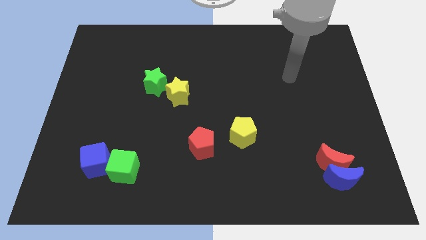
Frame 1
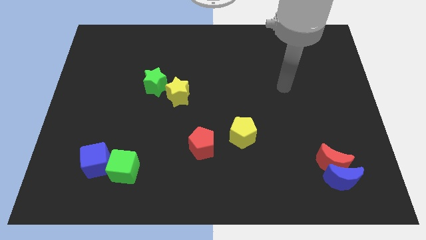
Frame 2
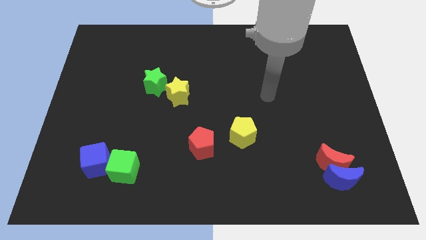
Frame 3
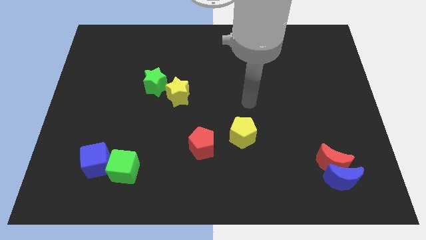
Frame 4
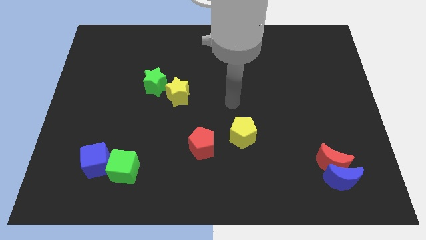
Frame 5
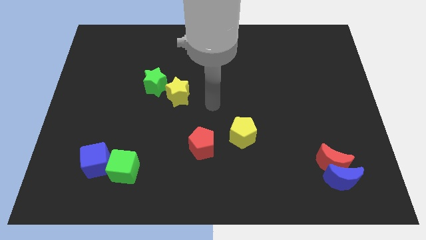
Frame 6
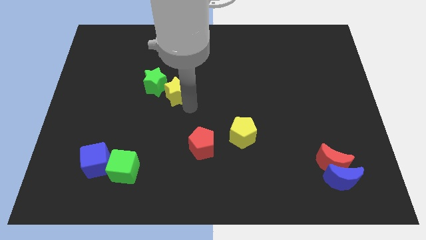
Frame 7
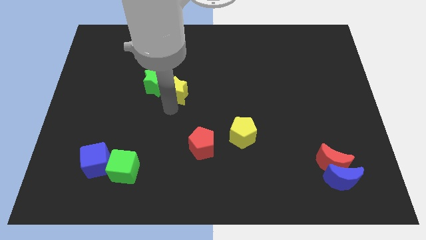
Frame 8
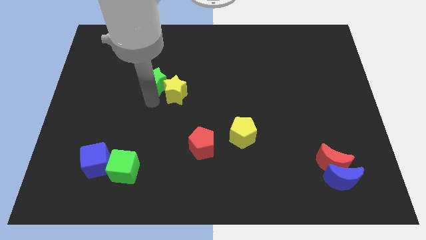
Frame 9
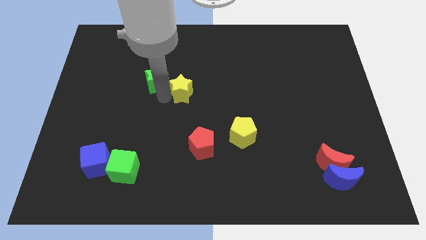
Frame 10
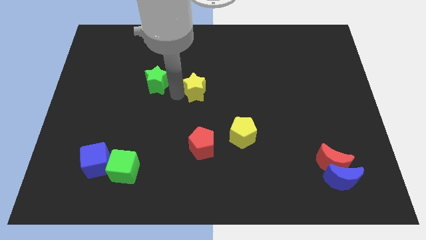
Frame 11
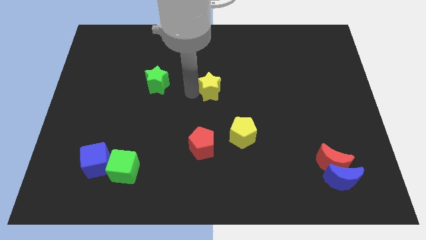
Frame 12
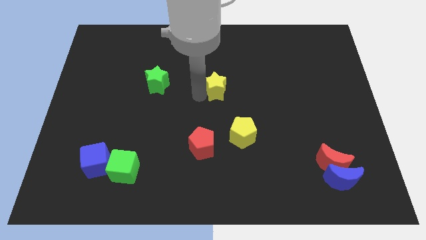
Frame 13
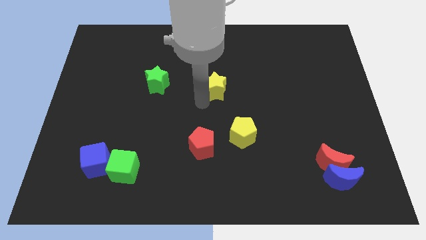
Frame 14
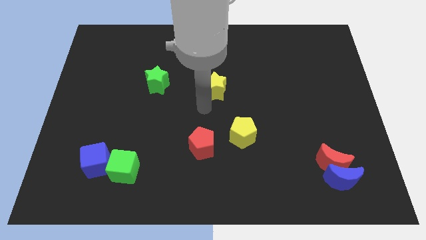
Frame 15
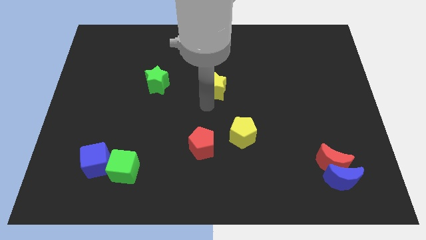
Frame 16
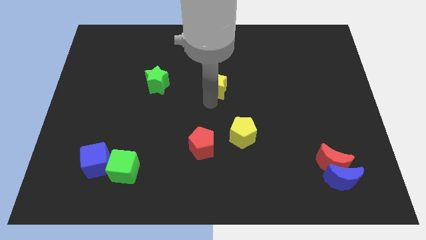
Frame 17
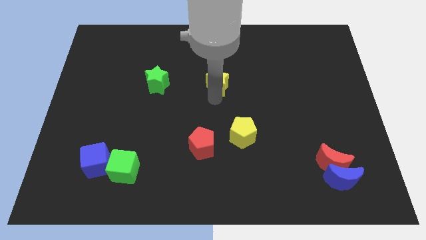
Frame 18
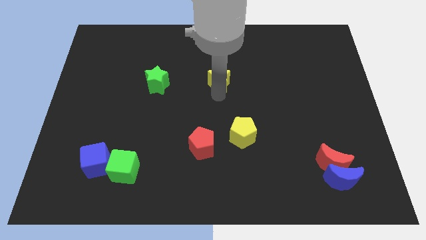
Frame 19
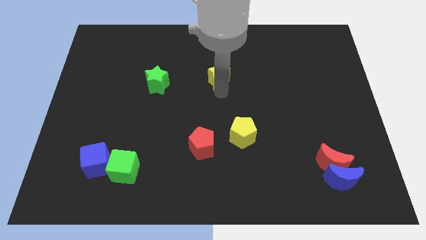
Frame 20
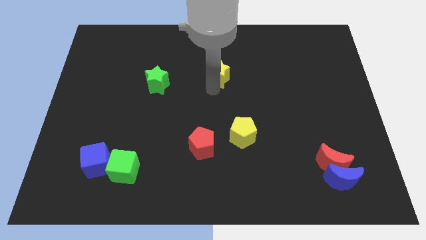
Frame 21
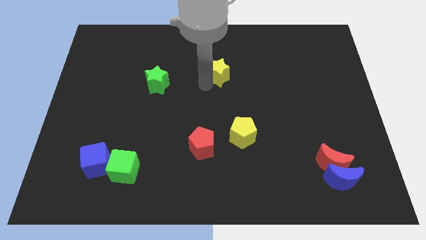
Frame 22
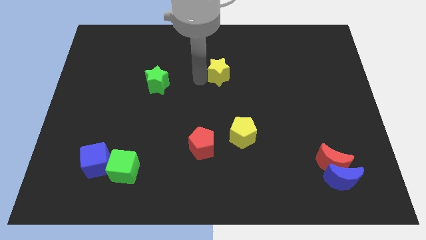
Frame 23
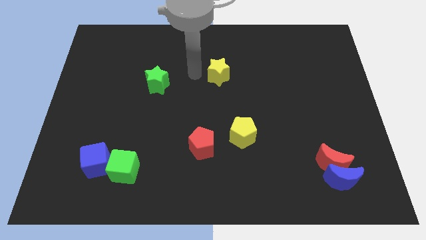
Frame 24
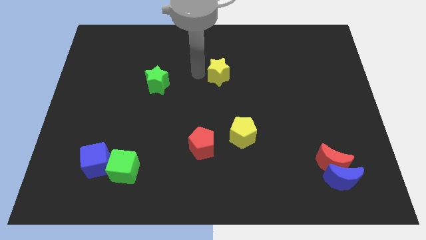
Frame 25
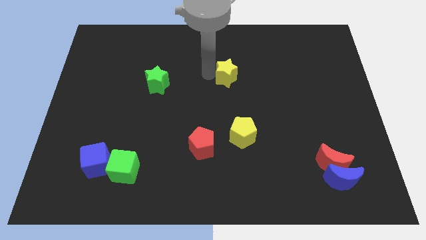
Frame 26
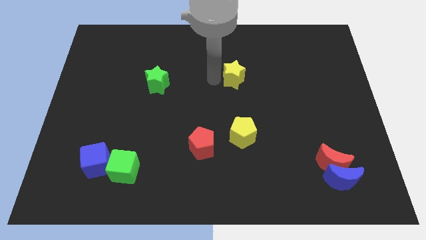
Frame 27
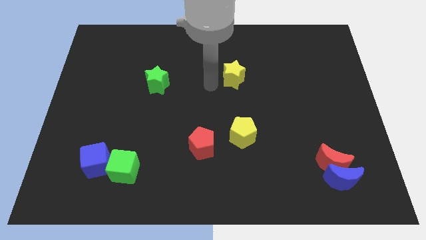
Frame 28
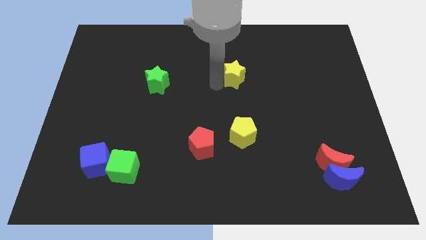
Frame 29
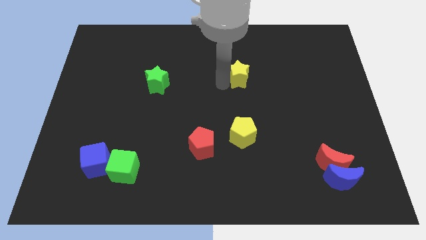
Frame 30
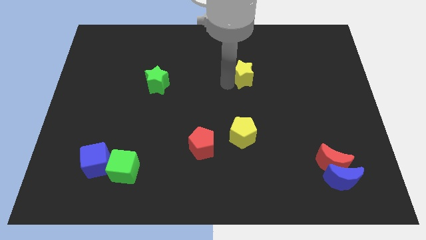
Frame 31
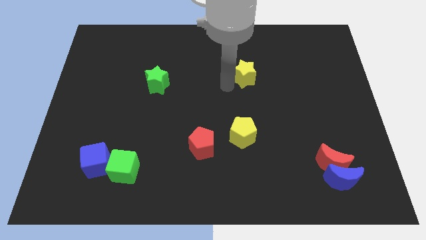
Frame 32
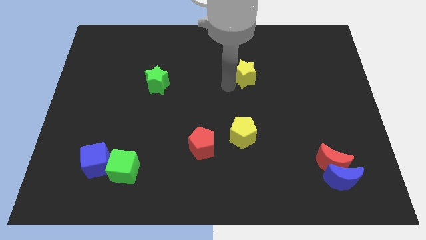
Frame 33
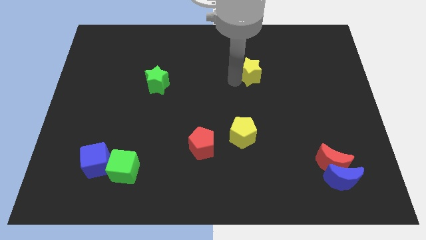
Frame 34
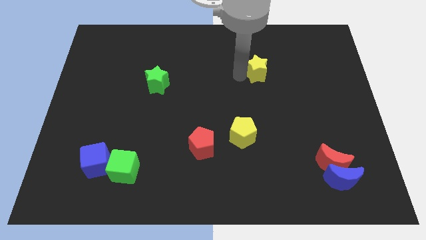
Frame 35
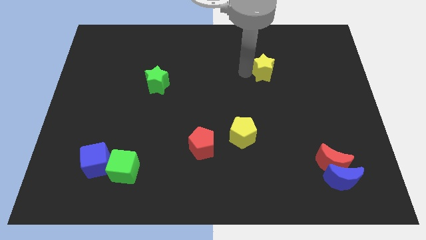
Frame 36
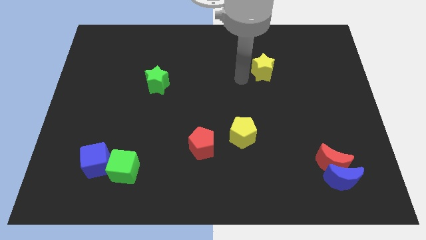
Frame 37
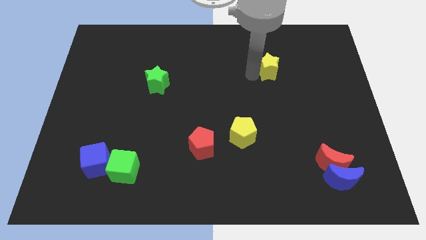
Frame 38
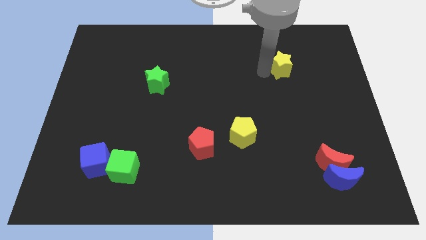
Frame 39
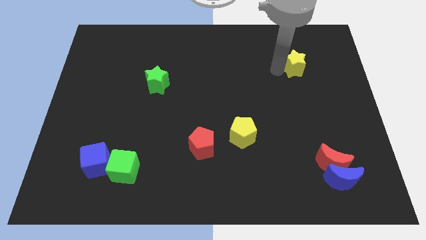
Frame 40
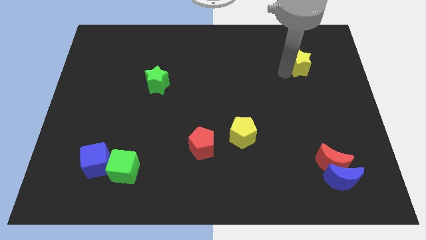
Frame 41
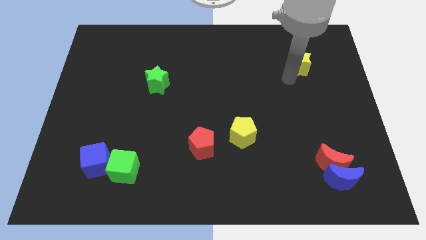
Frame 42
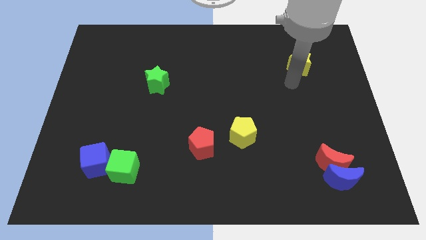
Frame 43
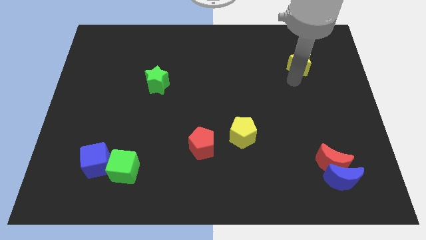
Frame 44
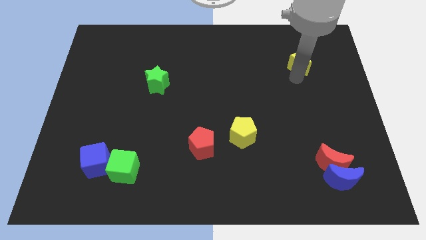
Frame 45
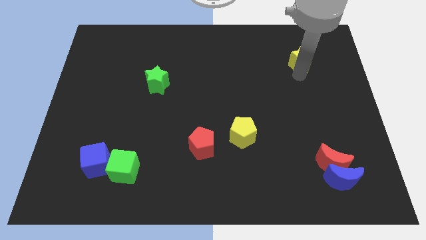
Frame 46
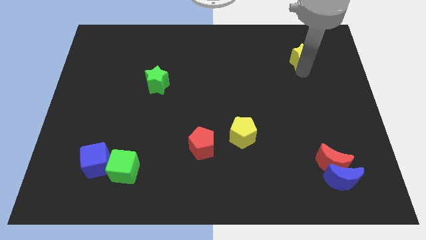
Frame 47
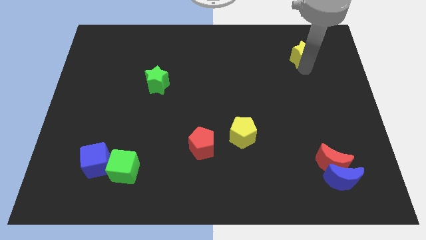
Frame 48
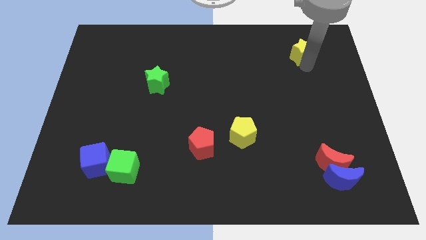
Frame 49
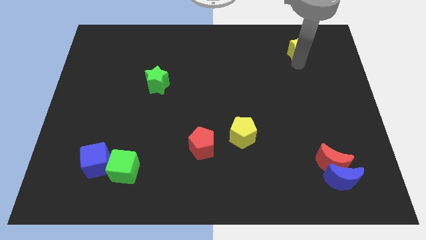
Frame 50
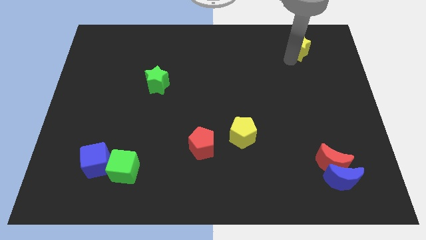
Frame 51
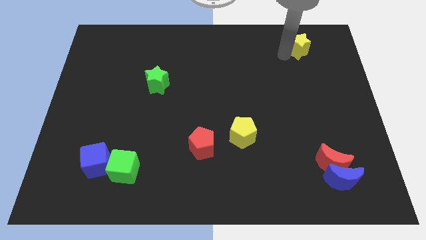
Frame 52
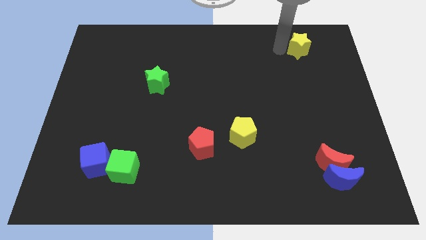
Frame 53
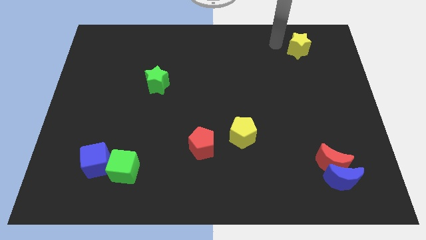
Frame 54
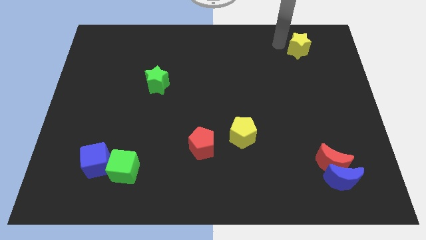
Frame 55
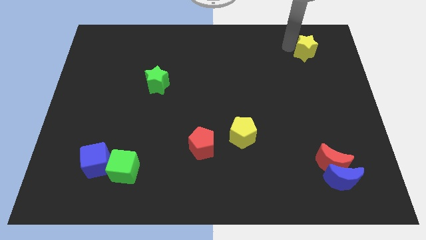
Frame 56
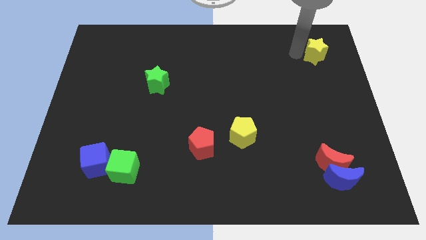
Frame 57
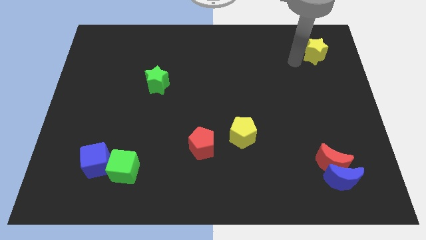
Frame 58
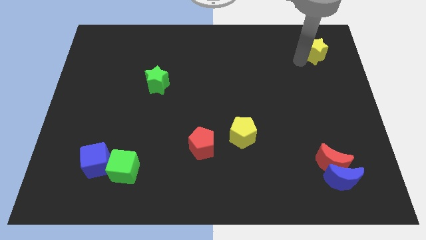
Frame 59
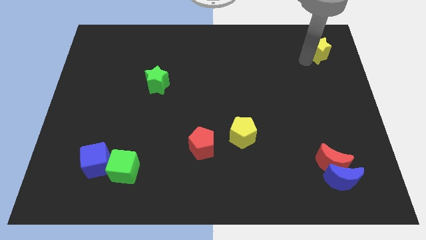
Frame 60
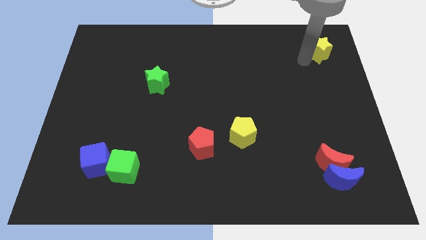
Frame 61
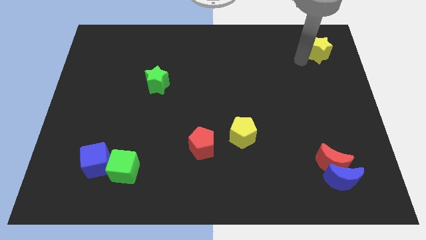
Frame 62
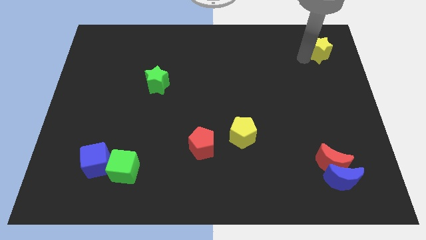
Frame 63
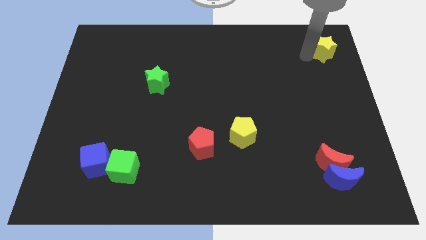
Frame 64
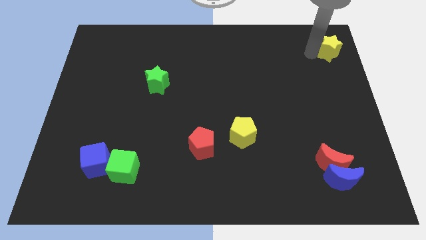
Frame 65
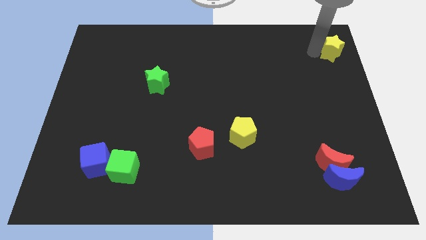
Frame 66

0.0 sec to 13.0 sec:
move the yellow star to the top right of the board
